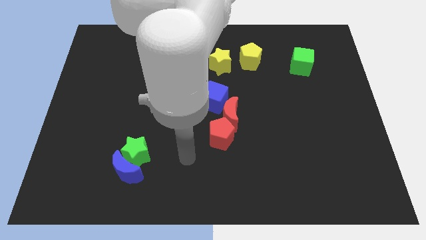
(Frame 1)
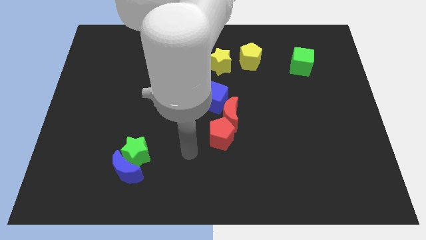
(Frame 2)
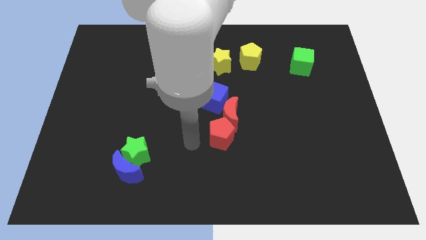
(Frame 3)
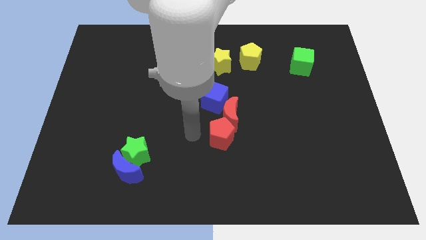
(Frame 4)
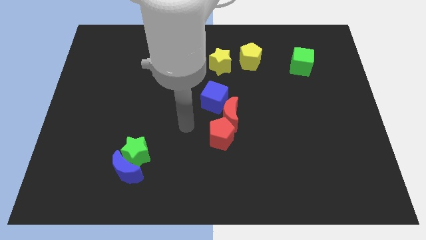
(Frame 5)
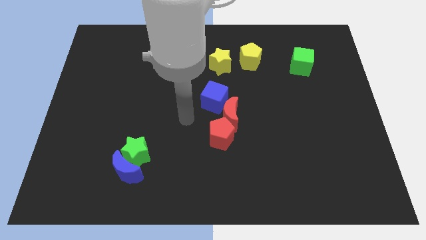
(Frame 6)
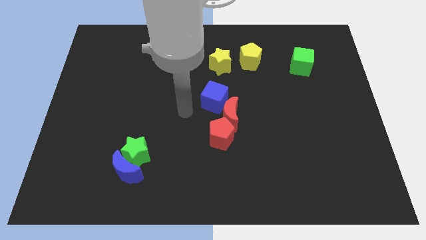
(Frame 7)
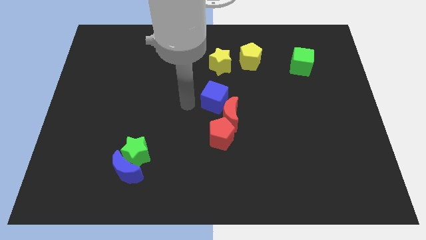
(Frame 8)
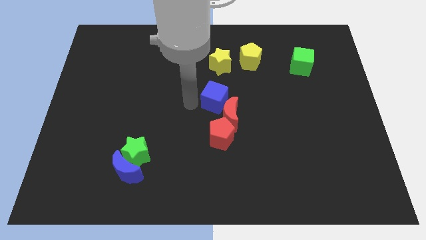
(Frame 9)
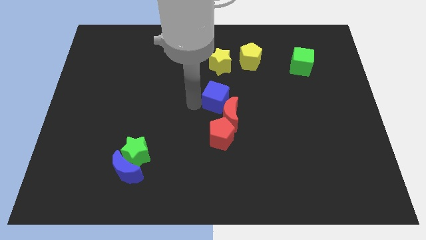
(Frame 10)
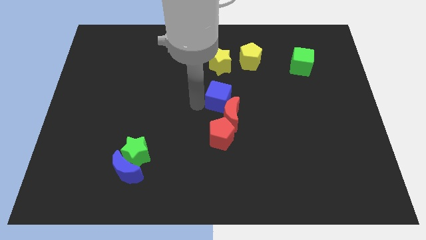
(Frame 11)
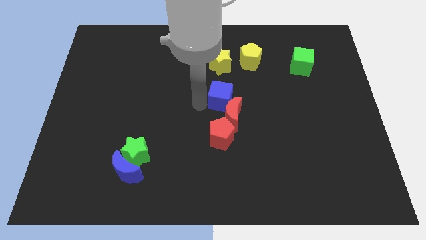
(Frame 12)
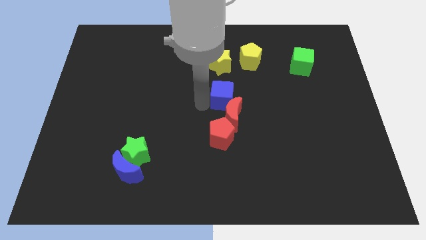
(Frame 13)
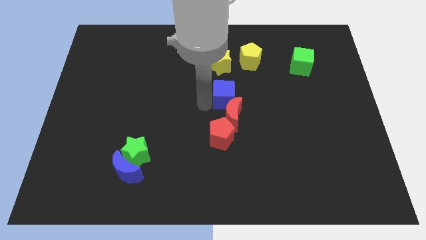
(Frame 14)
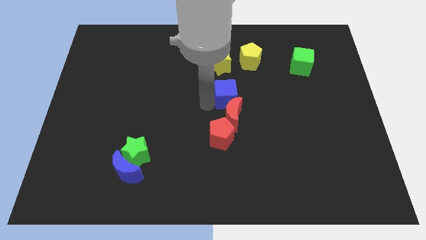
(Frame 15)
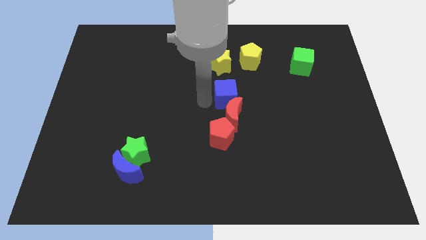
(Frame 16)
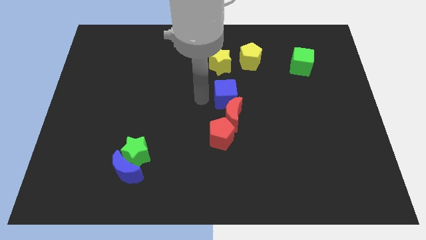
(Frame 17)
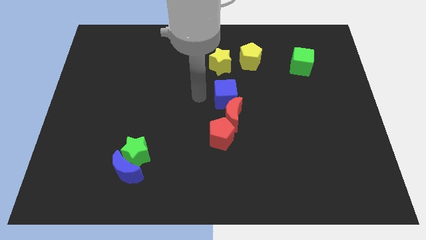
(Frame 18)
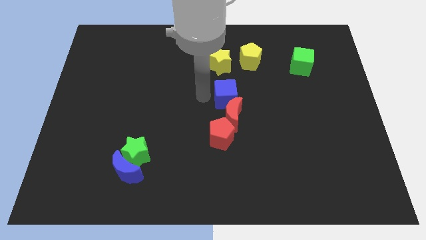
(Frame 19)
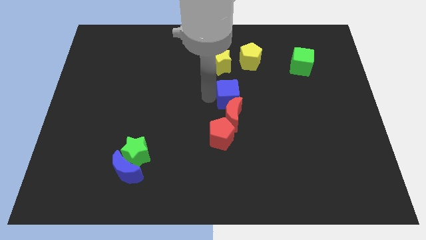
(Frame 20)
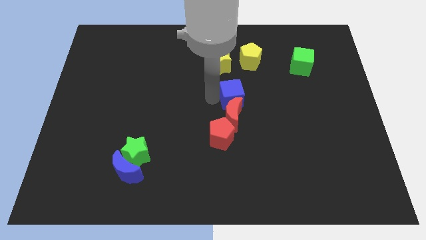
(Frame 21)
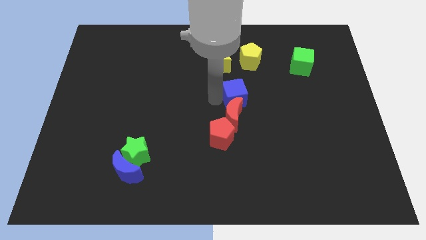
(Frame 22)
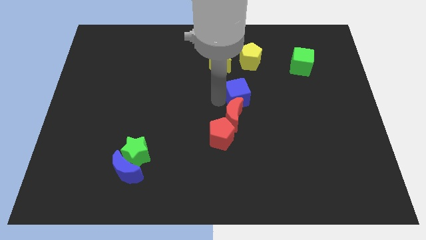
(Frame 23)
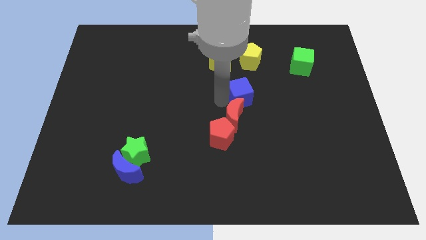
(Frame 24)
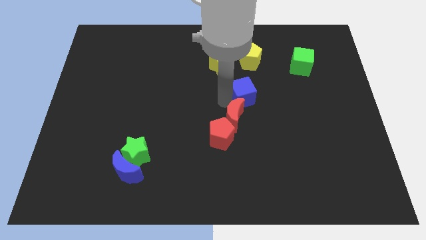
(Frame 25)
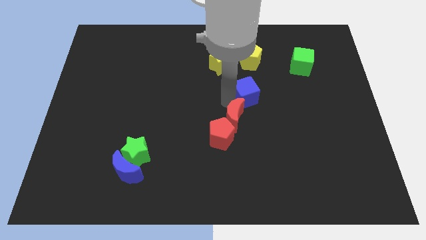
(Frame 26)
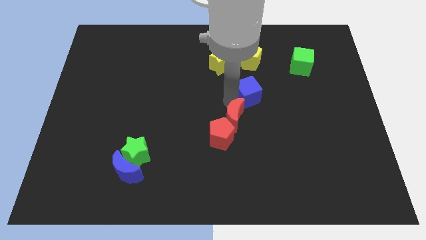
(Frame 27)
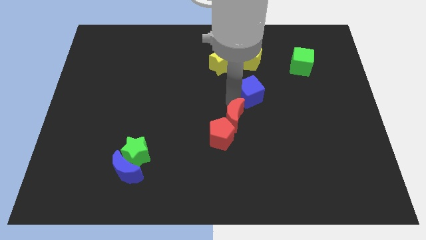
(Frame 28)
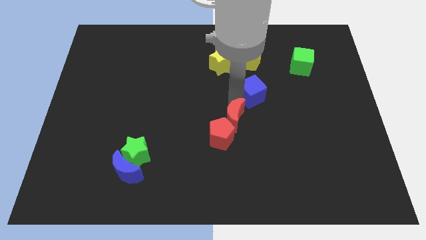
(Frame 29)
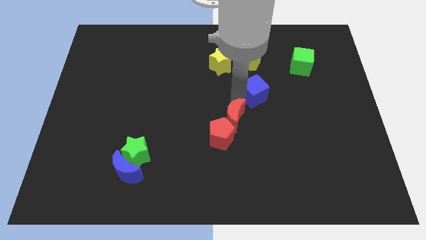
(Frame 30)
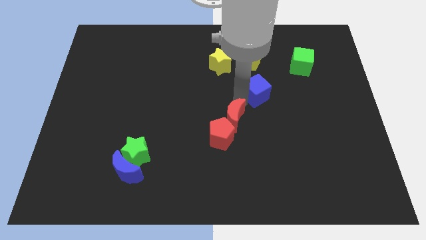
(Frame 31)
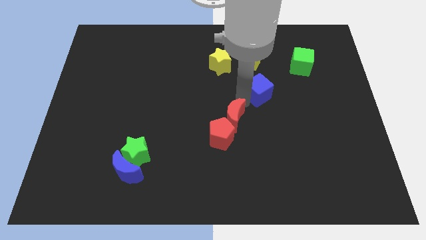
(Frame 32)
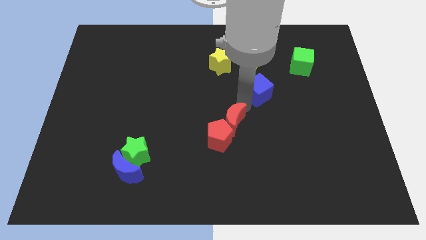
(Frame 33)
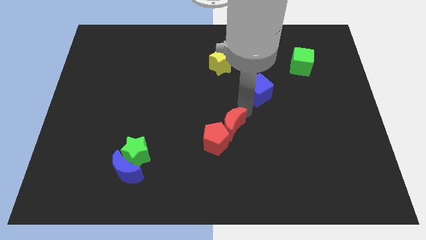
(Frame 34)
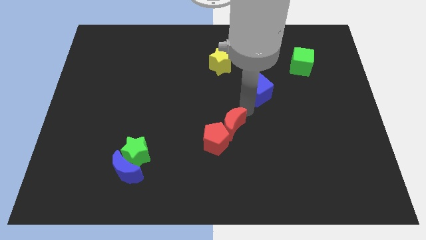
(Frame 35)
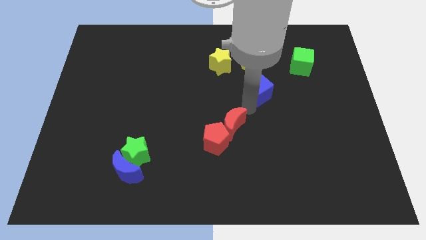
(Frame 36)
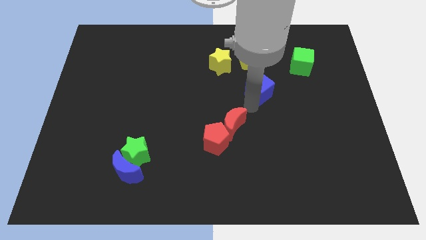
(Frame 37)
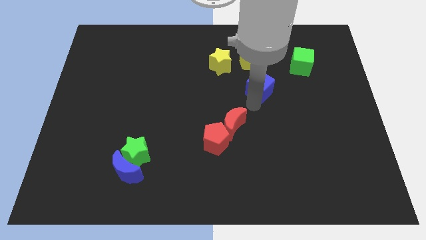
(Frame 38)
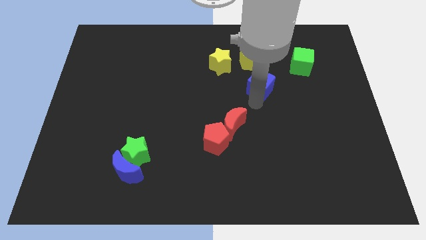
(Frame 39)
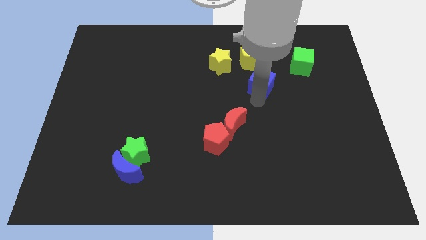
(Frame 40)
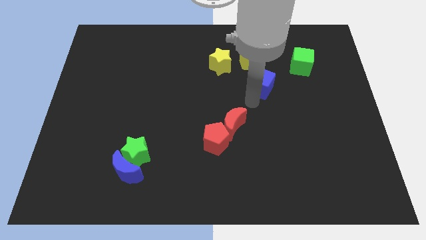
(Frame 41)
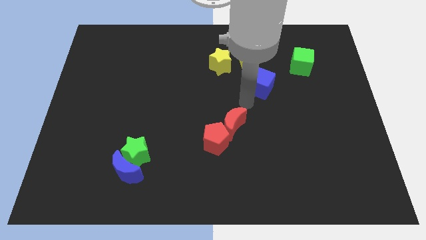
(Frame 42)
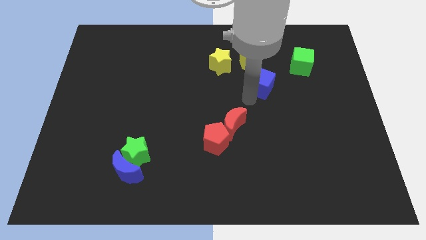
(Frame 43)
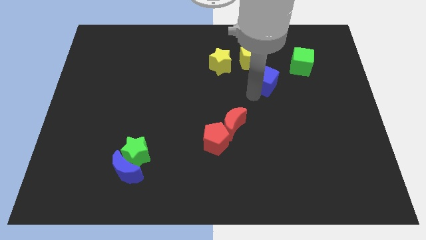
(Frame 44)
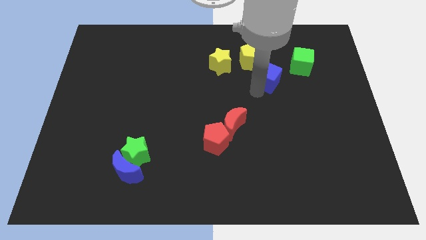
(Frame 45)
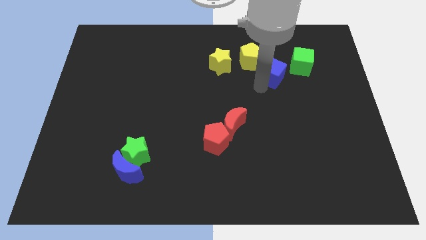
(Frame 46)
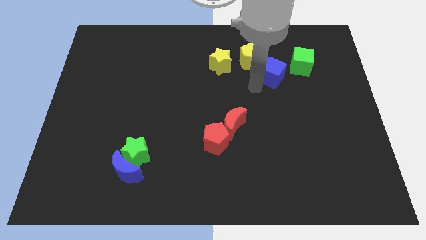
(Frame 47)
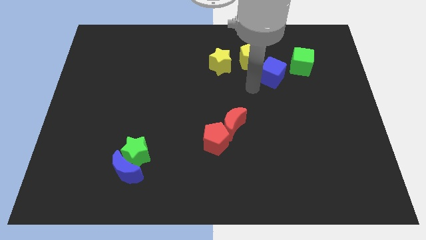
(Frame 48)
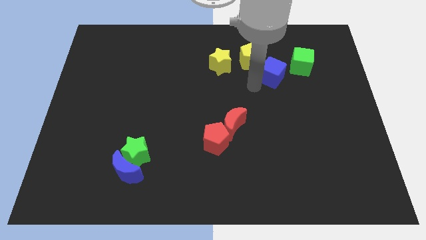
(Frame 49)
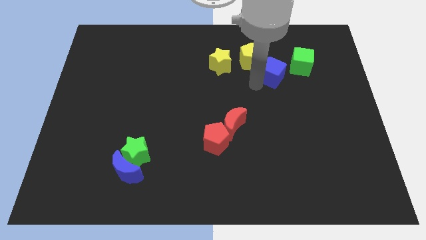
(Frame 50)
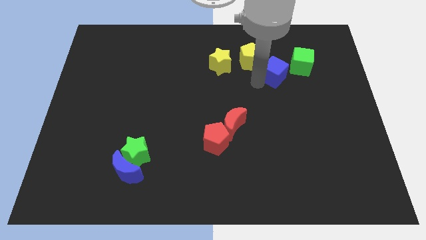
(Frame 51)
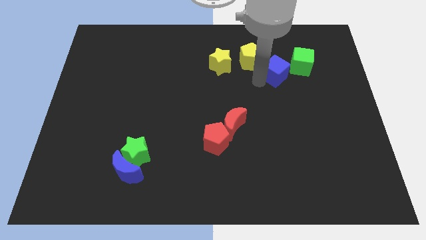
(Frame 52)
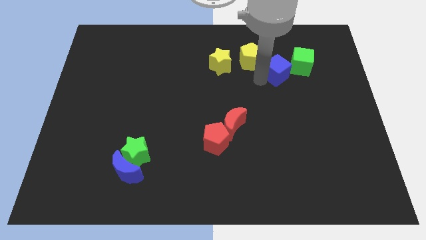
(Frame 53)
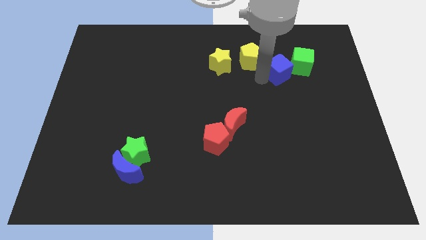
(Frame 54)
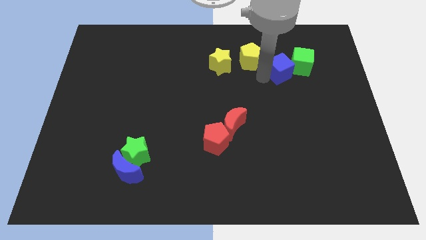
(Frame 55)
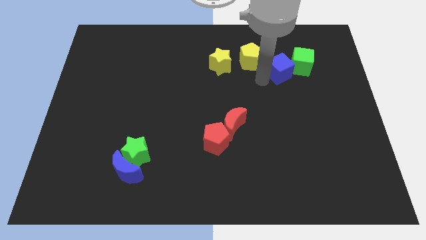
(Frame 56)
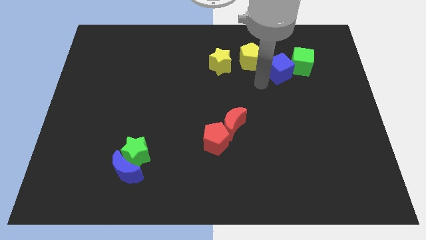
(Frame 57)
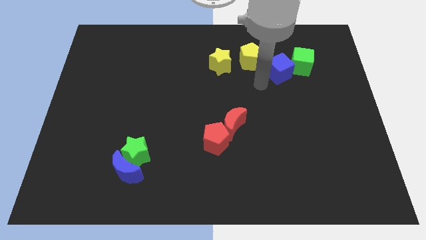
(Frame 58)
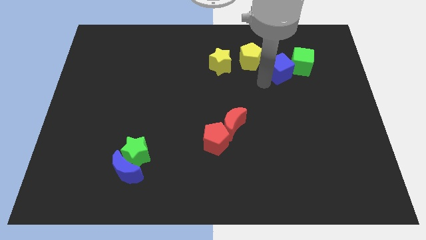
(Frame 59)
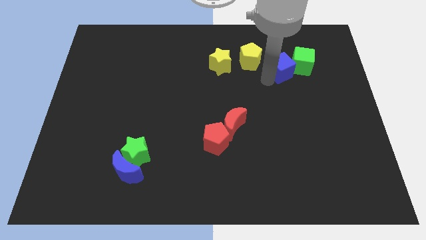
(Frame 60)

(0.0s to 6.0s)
move the blue cube towards the green cube

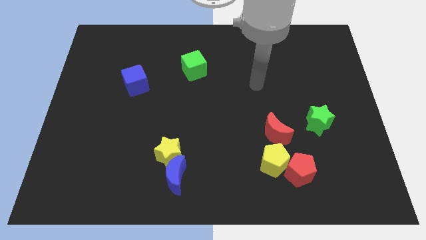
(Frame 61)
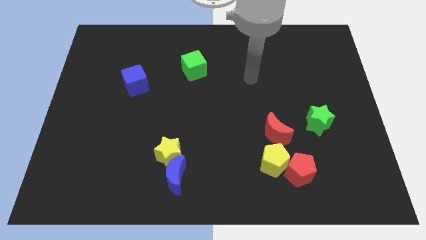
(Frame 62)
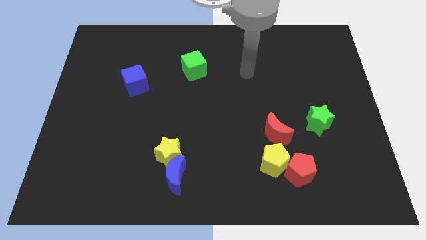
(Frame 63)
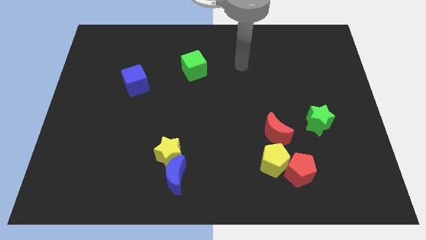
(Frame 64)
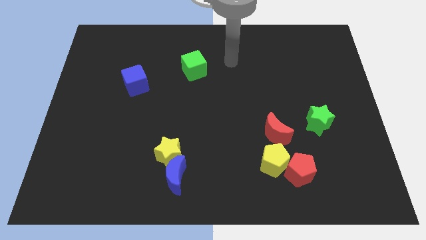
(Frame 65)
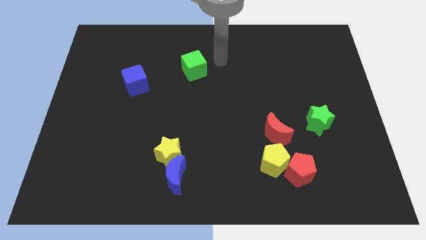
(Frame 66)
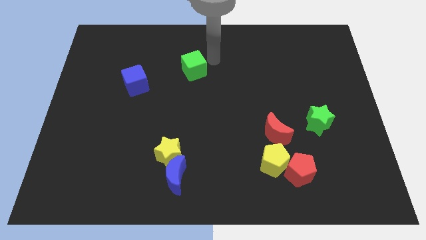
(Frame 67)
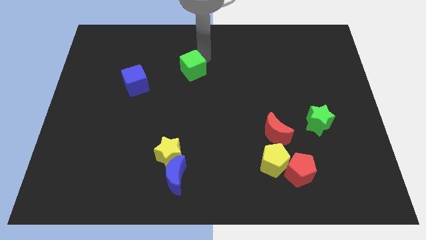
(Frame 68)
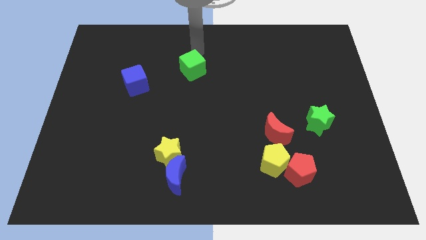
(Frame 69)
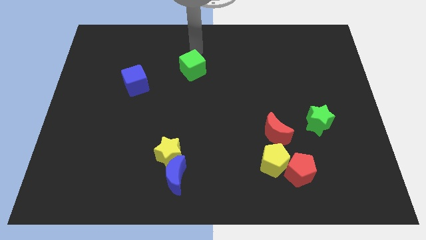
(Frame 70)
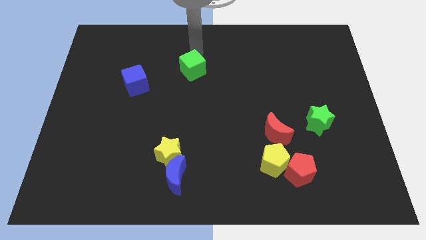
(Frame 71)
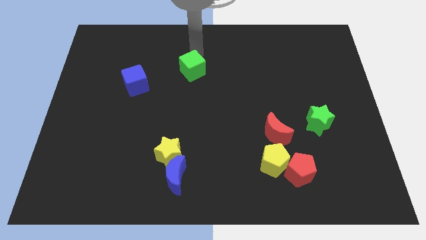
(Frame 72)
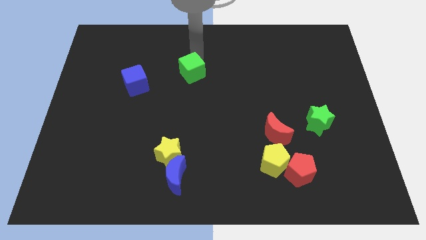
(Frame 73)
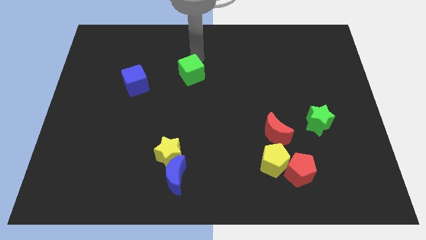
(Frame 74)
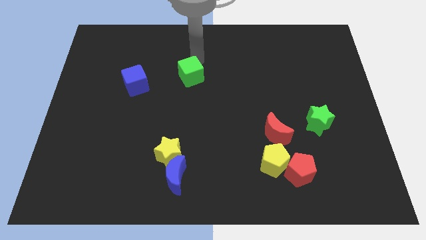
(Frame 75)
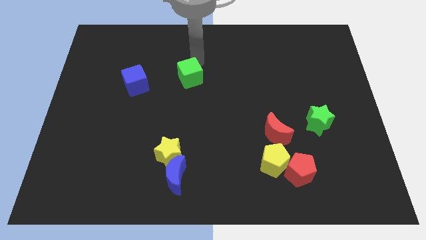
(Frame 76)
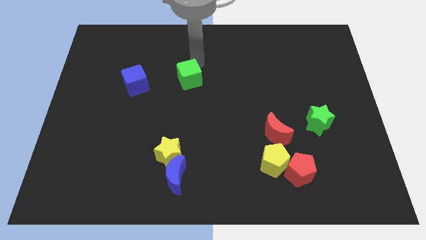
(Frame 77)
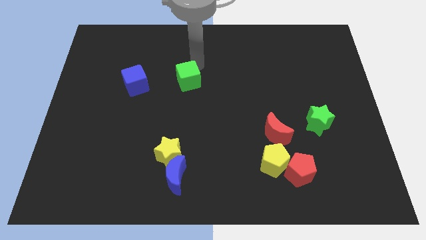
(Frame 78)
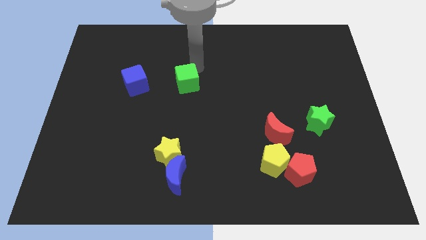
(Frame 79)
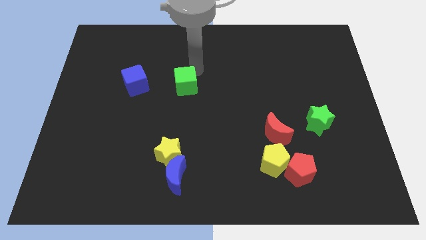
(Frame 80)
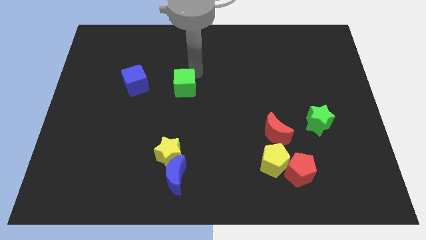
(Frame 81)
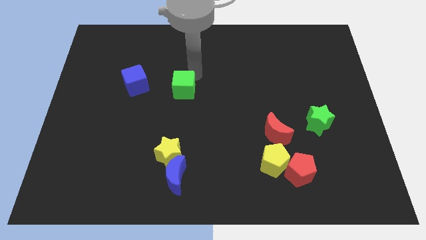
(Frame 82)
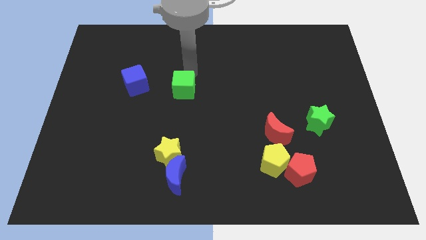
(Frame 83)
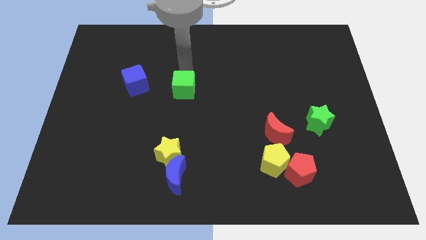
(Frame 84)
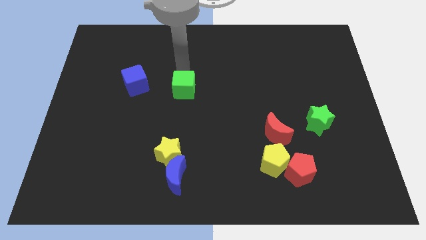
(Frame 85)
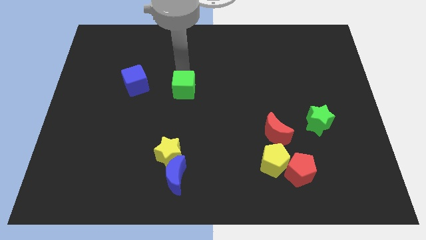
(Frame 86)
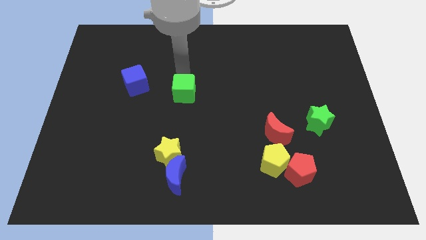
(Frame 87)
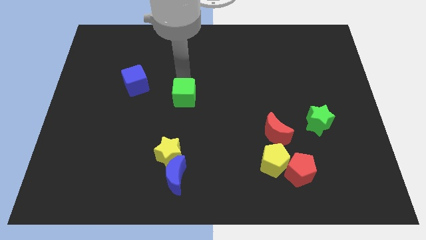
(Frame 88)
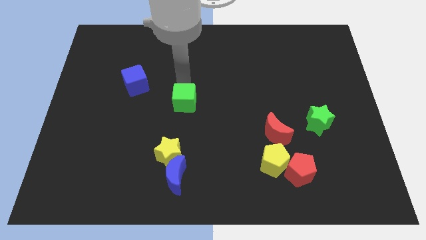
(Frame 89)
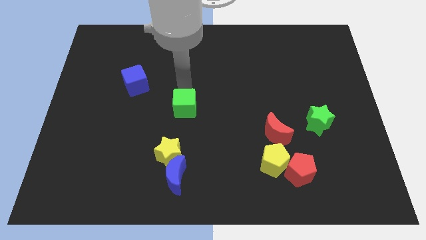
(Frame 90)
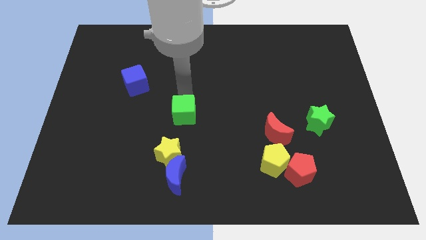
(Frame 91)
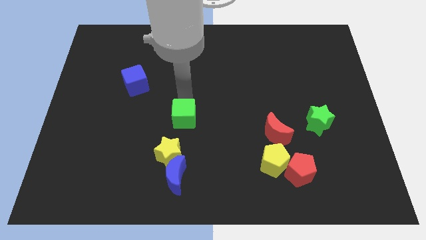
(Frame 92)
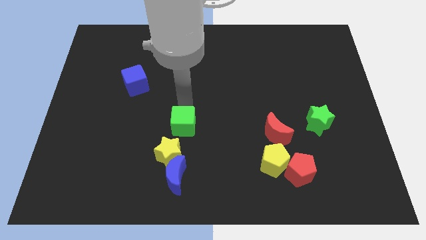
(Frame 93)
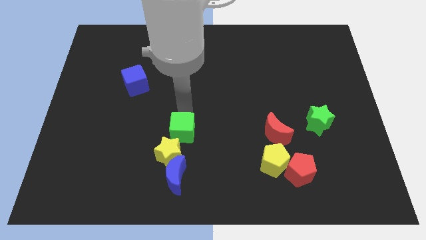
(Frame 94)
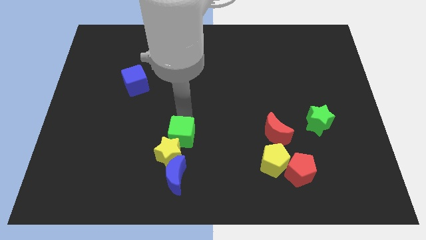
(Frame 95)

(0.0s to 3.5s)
push the green cube towards the yellow star
